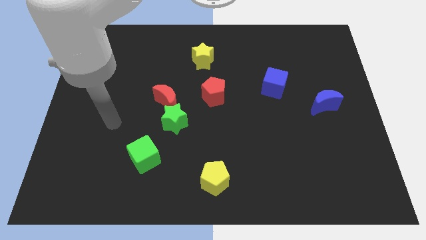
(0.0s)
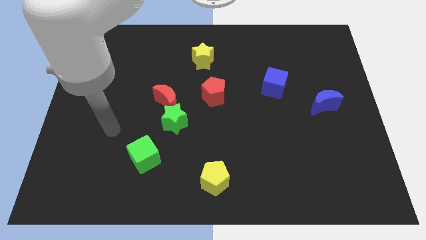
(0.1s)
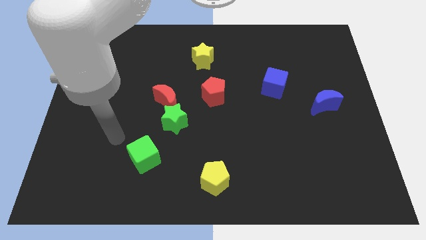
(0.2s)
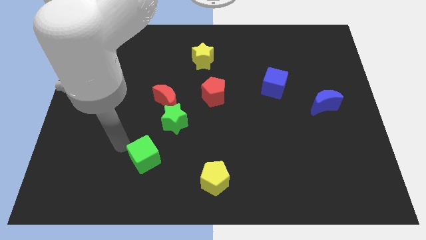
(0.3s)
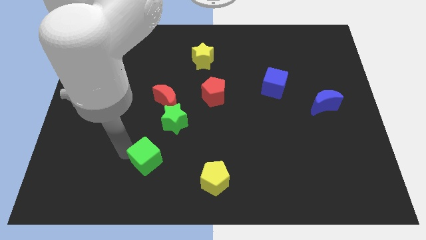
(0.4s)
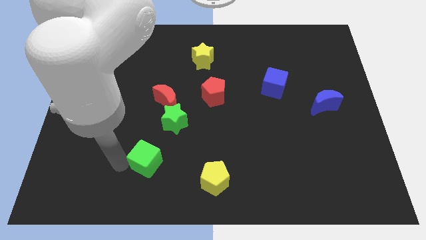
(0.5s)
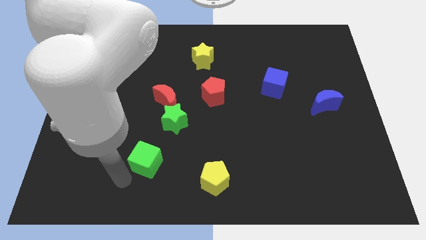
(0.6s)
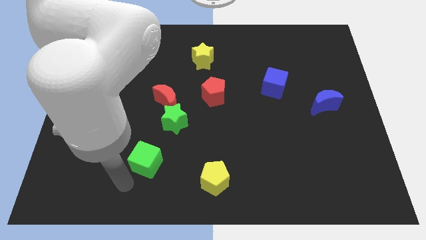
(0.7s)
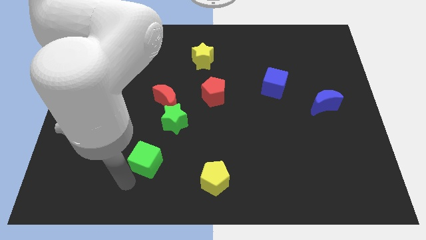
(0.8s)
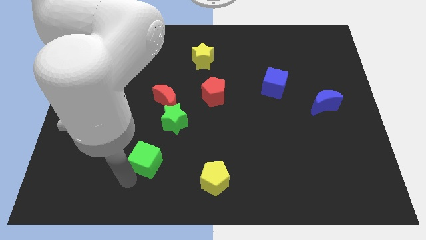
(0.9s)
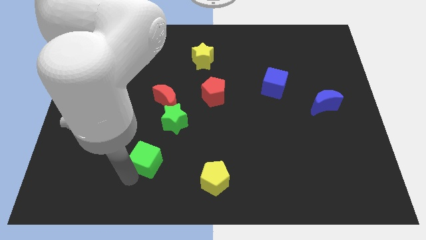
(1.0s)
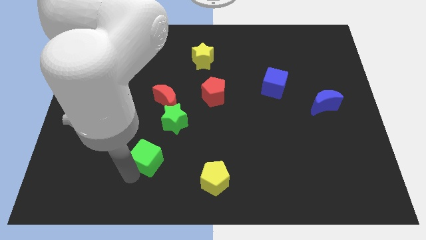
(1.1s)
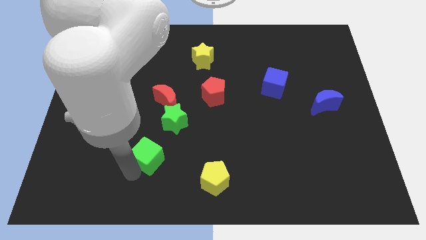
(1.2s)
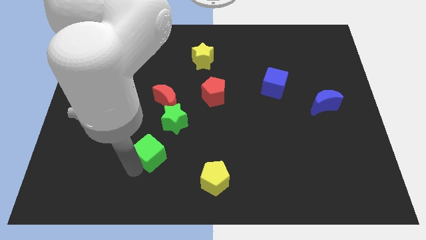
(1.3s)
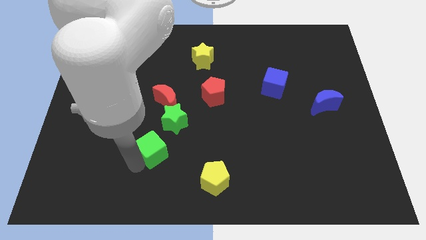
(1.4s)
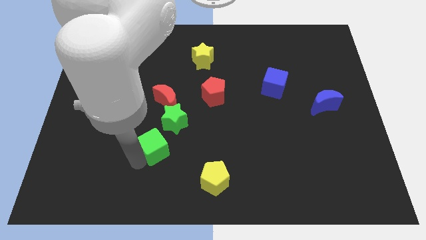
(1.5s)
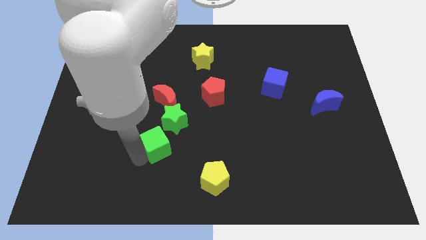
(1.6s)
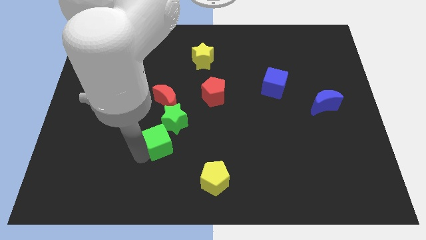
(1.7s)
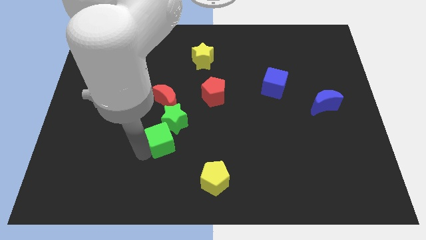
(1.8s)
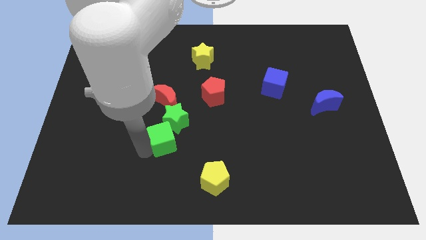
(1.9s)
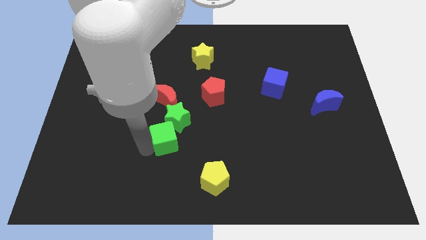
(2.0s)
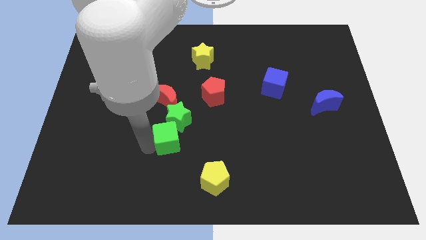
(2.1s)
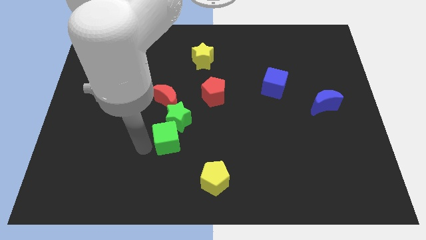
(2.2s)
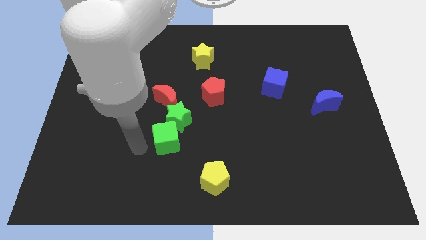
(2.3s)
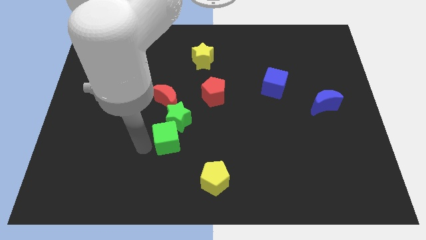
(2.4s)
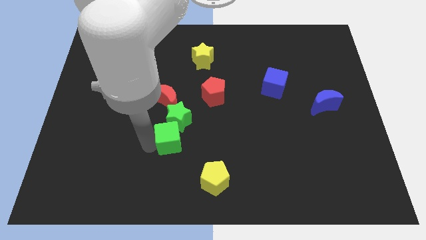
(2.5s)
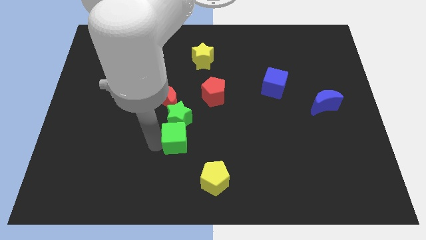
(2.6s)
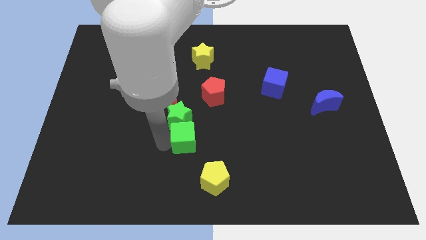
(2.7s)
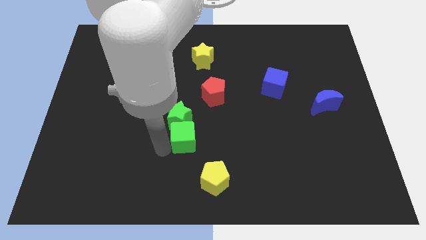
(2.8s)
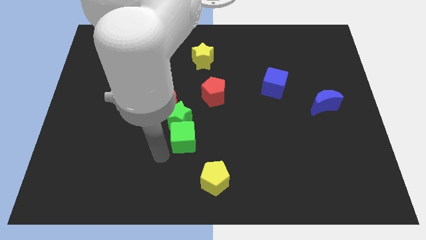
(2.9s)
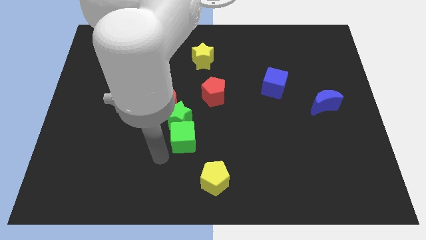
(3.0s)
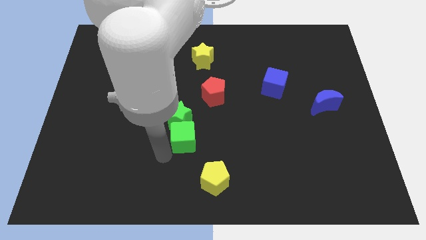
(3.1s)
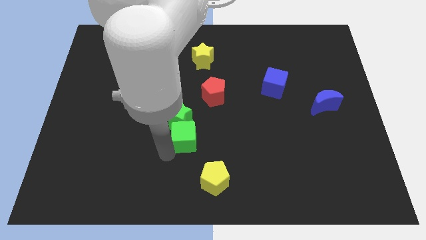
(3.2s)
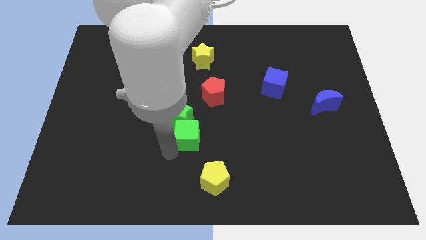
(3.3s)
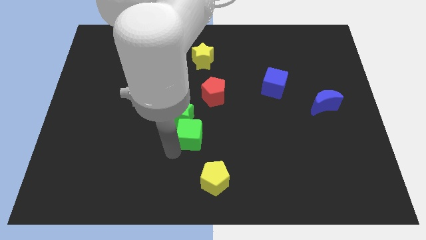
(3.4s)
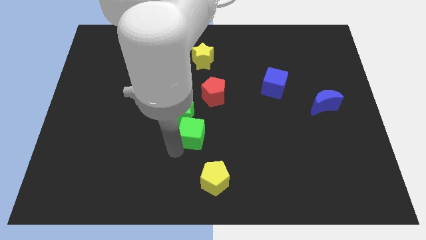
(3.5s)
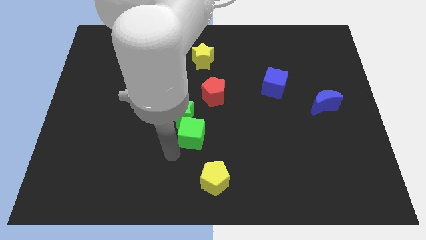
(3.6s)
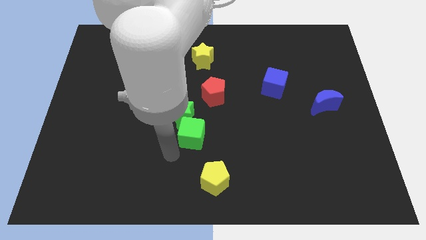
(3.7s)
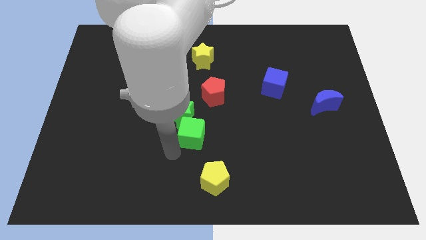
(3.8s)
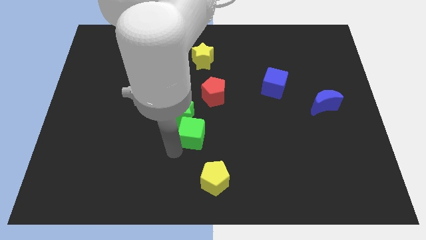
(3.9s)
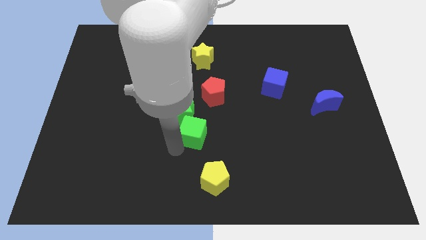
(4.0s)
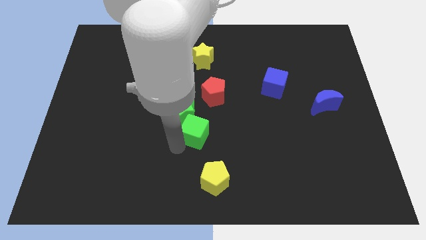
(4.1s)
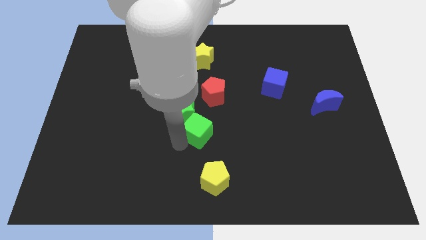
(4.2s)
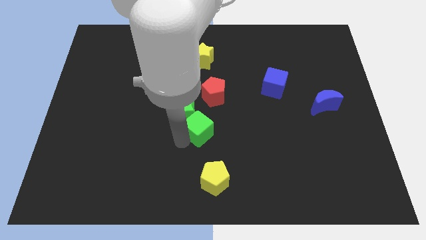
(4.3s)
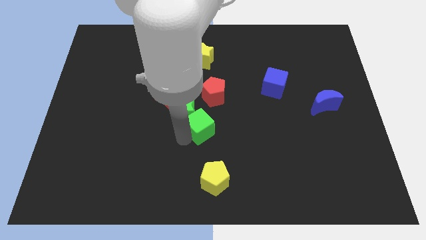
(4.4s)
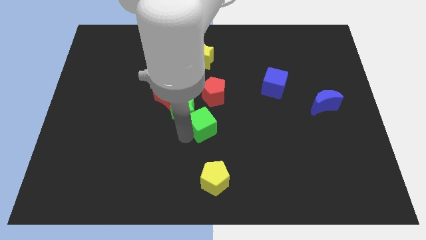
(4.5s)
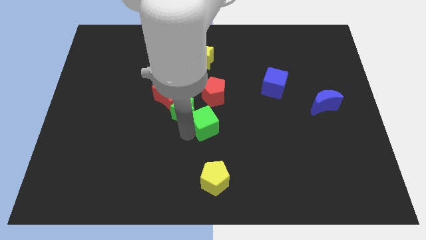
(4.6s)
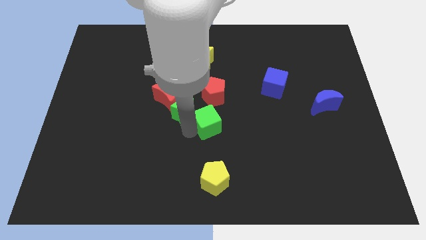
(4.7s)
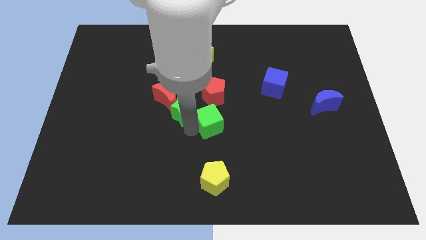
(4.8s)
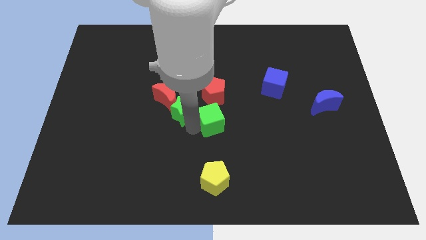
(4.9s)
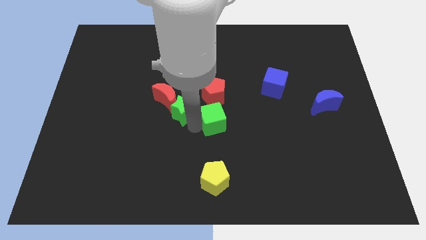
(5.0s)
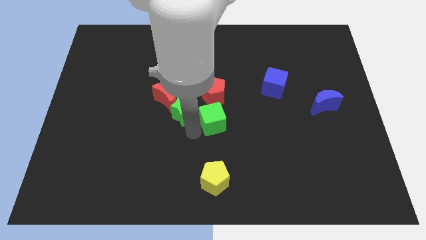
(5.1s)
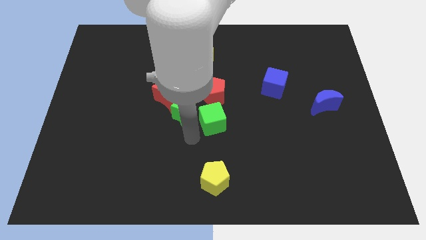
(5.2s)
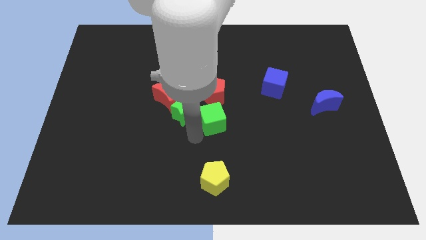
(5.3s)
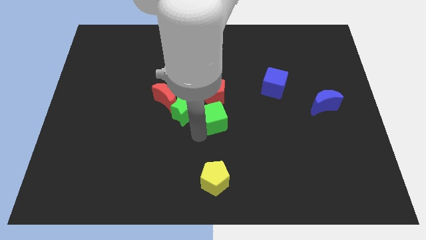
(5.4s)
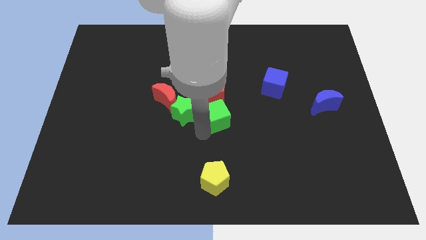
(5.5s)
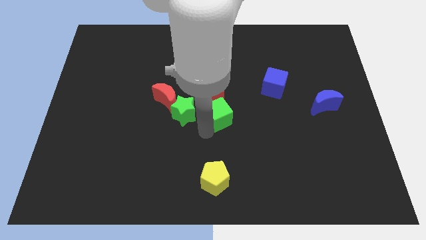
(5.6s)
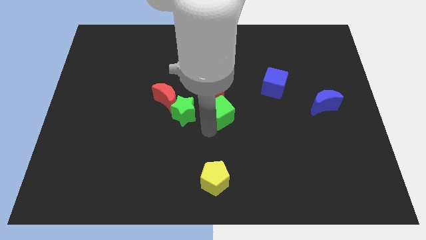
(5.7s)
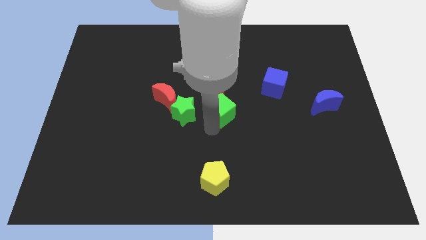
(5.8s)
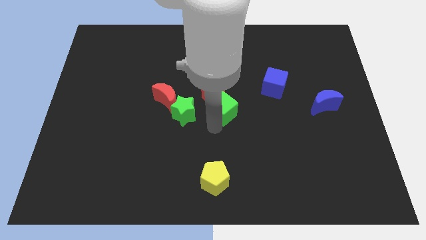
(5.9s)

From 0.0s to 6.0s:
move the green cube diagonally up and to the right

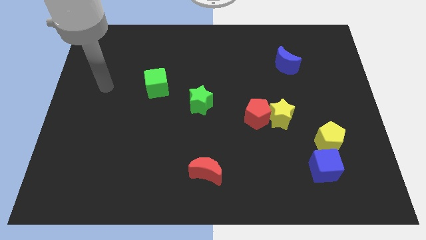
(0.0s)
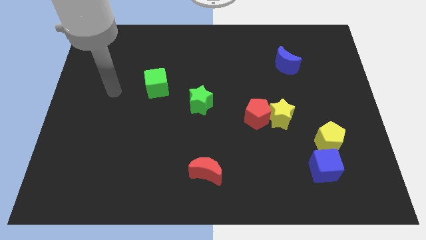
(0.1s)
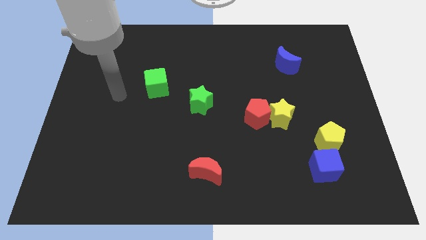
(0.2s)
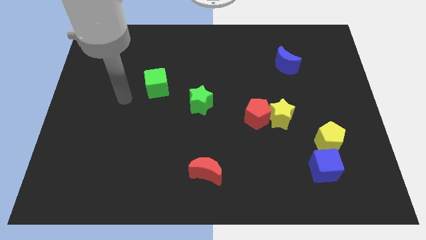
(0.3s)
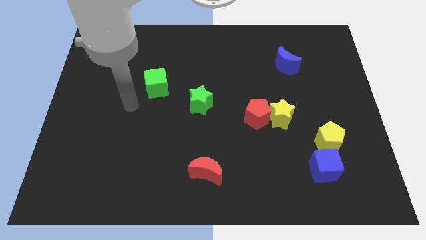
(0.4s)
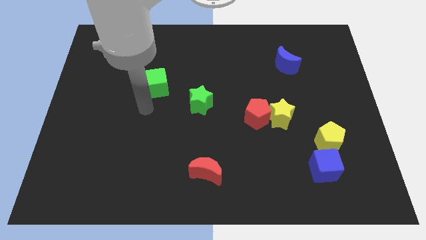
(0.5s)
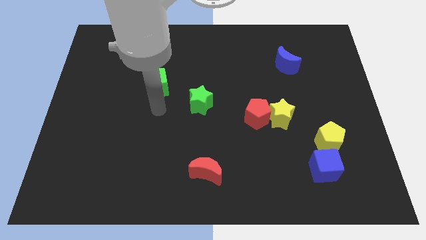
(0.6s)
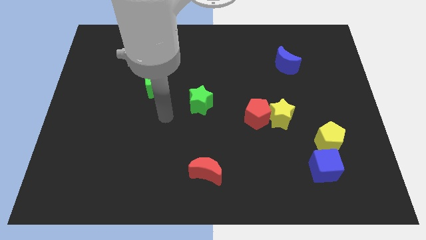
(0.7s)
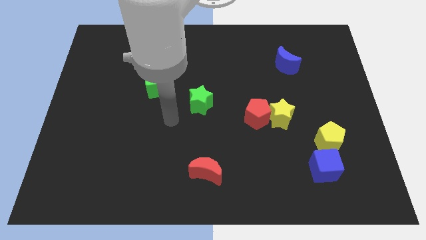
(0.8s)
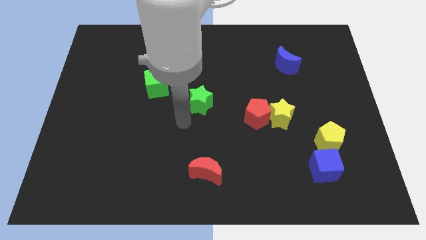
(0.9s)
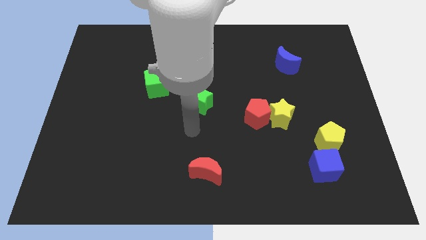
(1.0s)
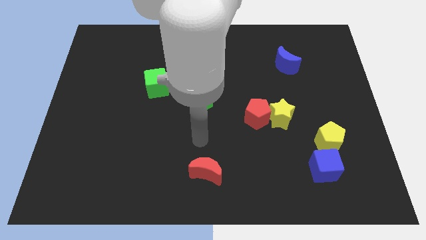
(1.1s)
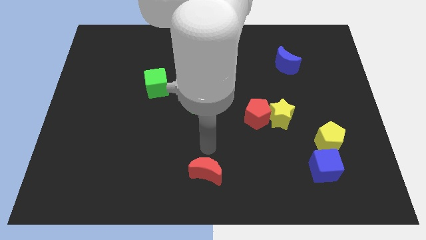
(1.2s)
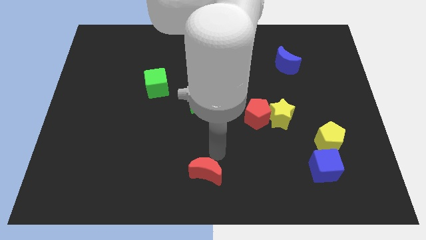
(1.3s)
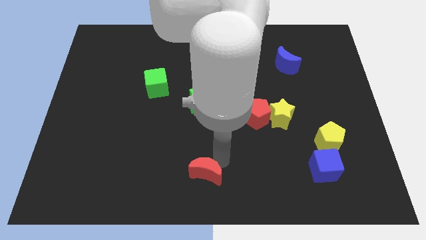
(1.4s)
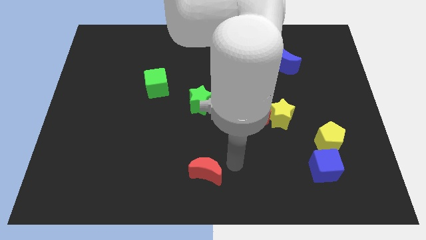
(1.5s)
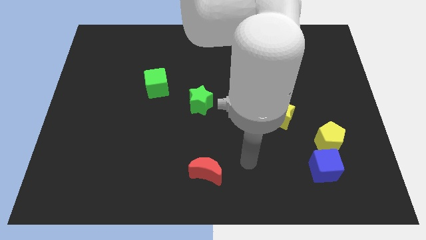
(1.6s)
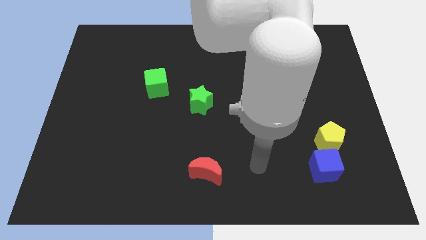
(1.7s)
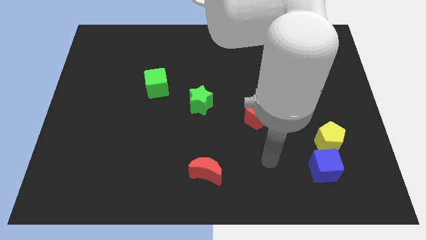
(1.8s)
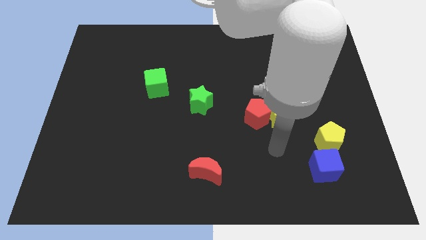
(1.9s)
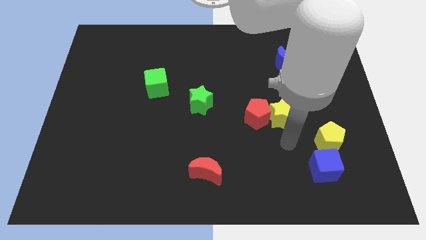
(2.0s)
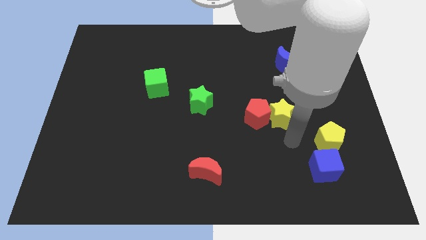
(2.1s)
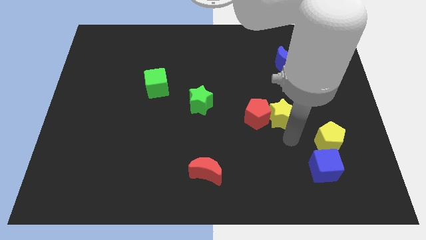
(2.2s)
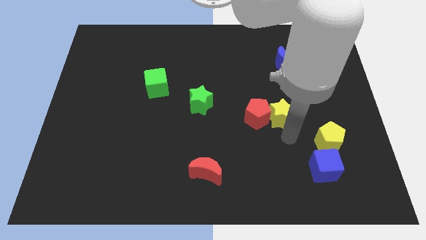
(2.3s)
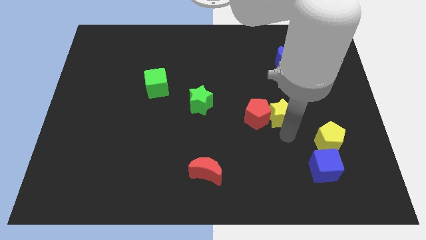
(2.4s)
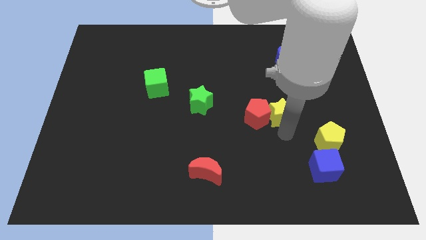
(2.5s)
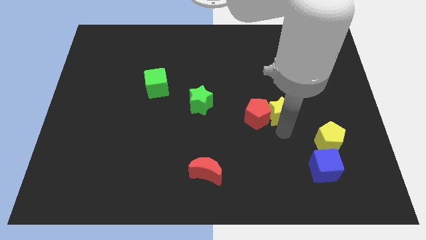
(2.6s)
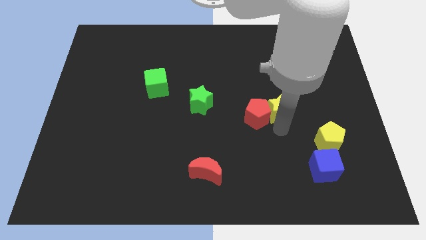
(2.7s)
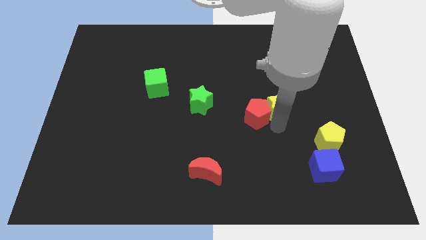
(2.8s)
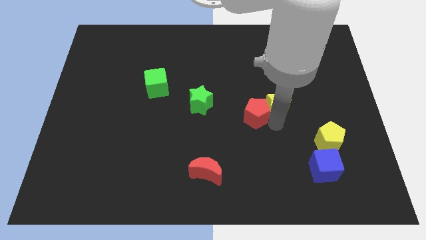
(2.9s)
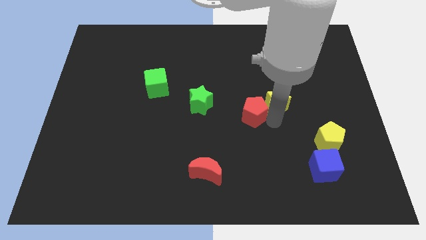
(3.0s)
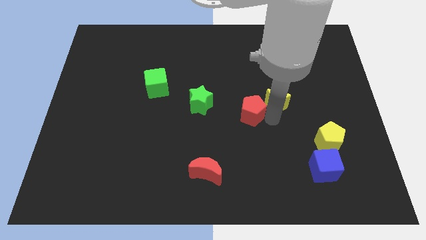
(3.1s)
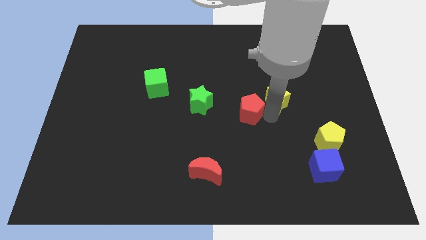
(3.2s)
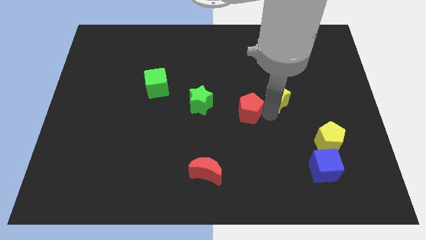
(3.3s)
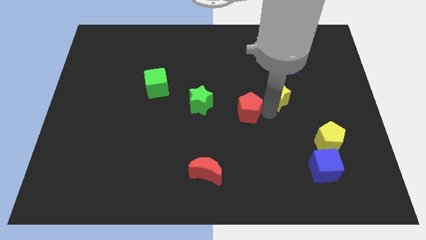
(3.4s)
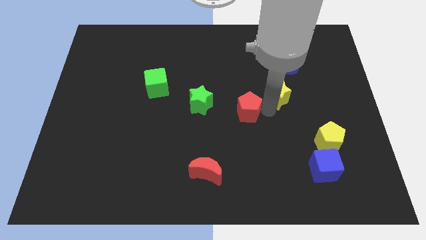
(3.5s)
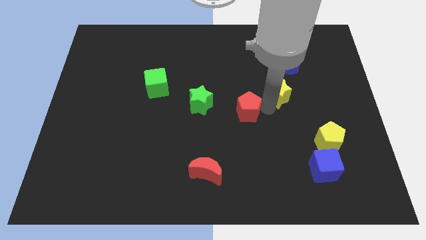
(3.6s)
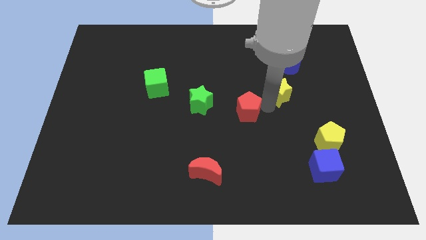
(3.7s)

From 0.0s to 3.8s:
move the yellow star upwards a bit
